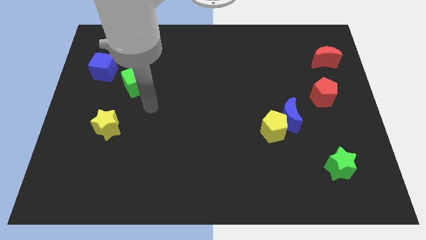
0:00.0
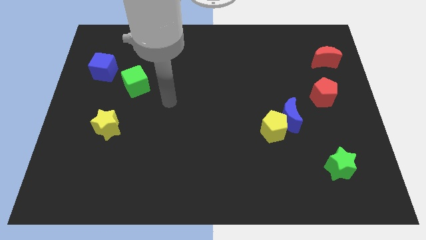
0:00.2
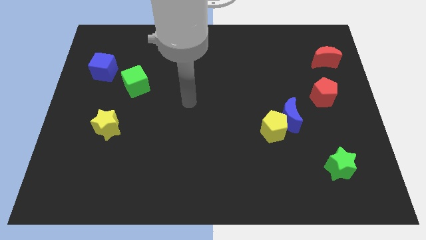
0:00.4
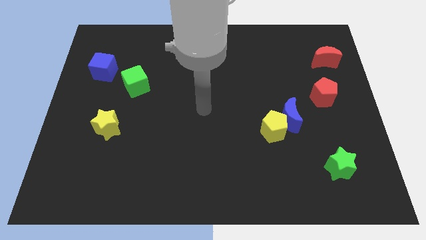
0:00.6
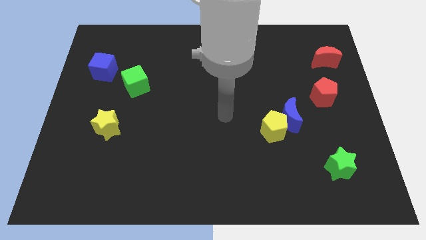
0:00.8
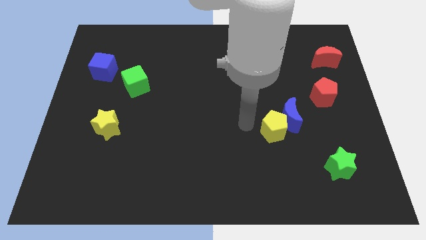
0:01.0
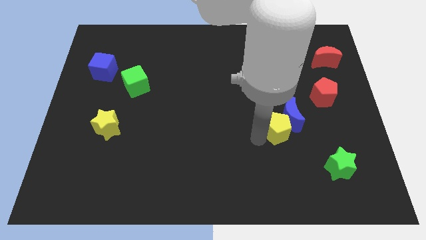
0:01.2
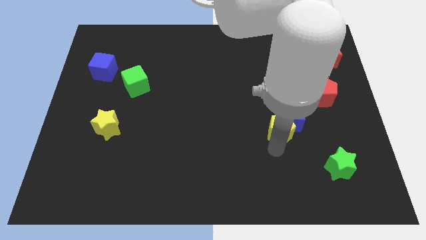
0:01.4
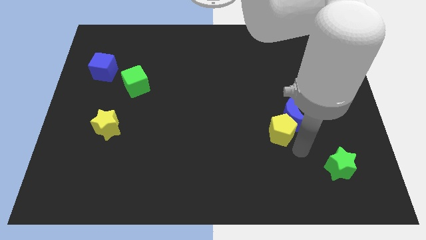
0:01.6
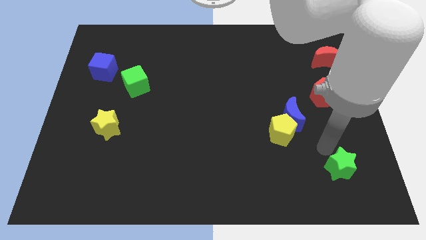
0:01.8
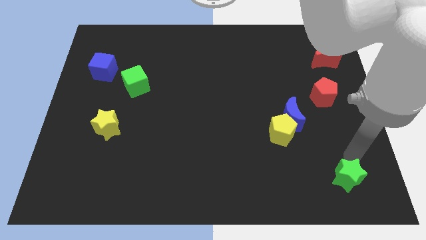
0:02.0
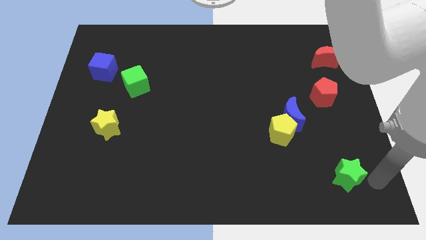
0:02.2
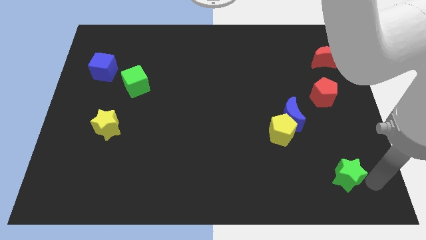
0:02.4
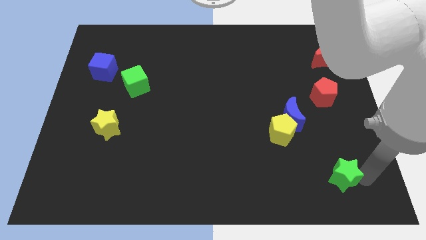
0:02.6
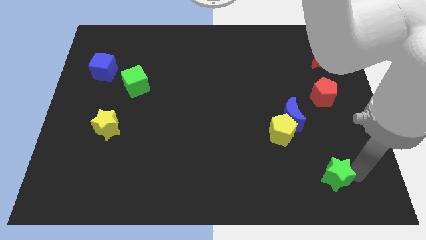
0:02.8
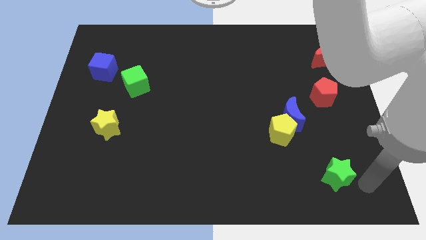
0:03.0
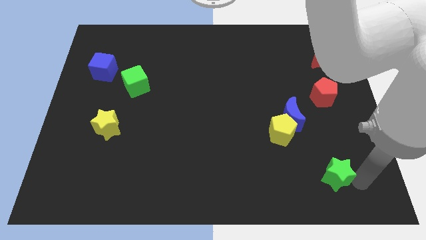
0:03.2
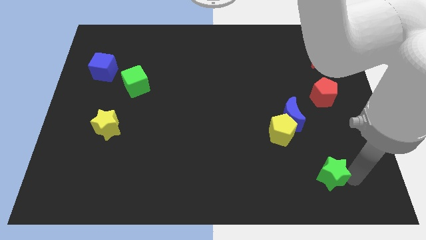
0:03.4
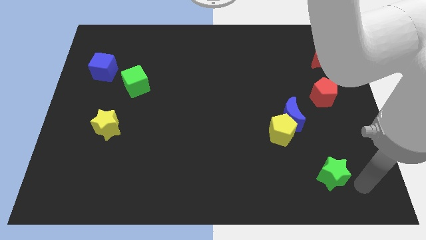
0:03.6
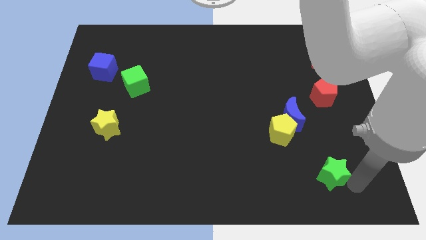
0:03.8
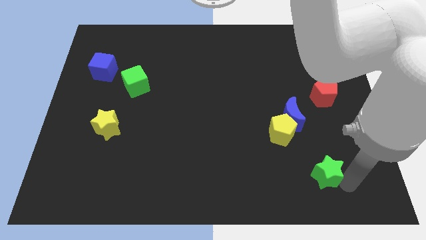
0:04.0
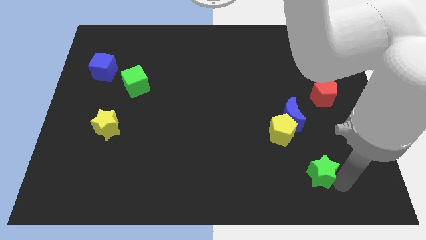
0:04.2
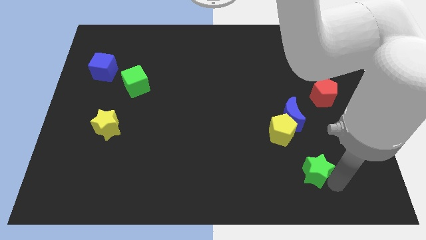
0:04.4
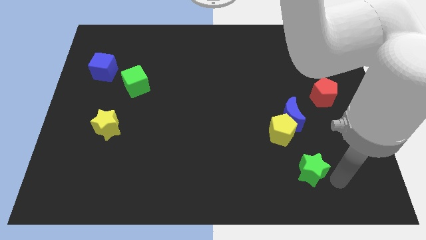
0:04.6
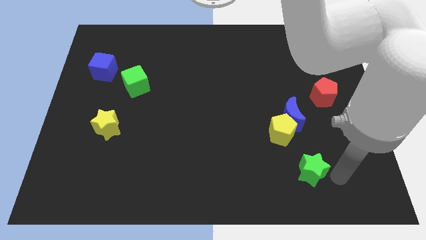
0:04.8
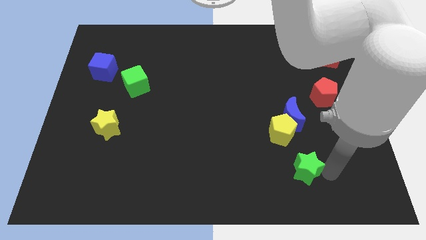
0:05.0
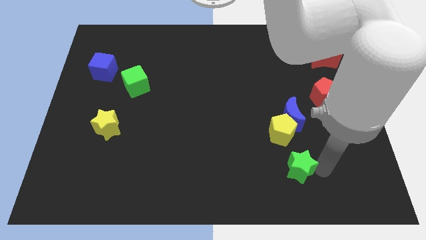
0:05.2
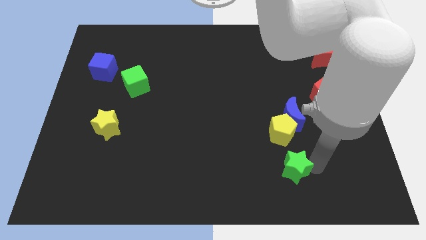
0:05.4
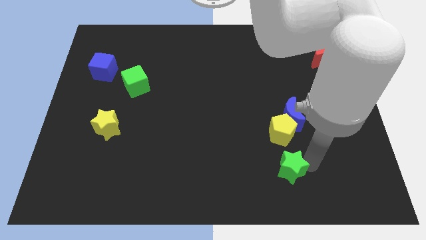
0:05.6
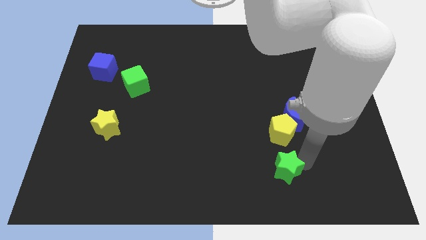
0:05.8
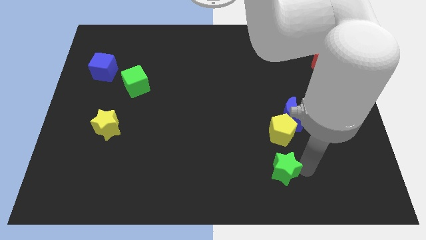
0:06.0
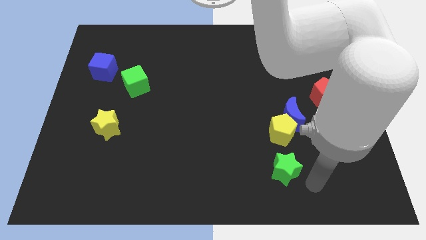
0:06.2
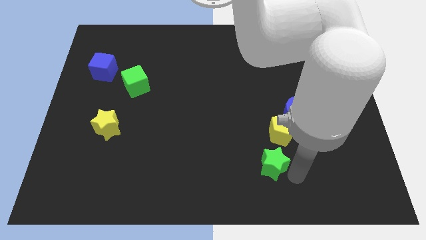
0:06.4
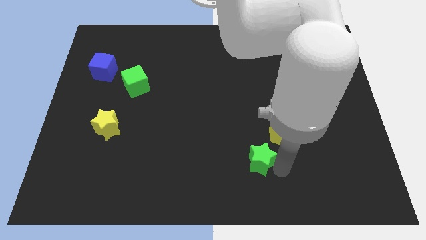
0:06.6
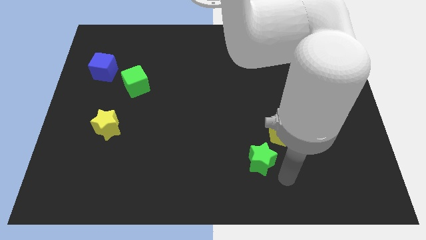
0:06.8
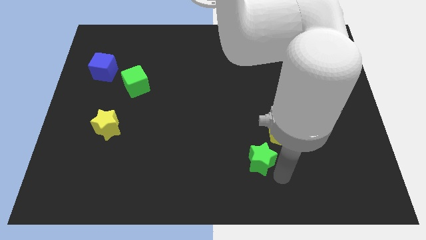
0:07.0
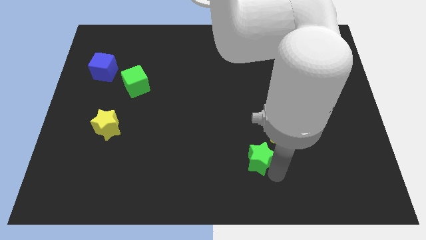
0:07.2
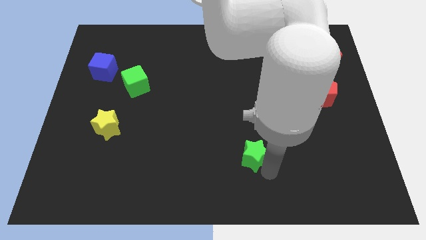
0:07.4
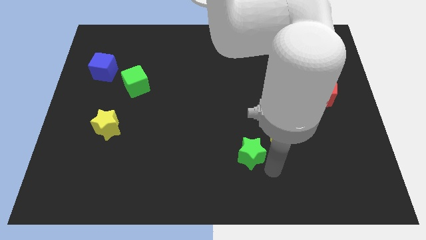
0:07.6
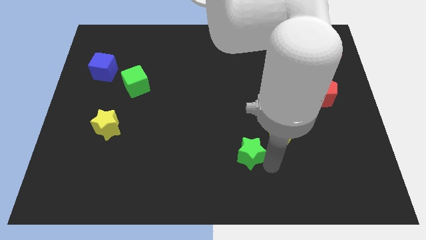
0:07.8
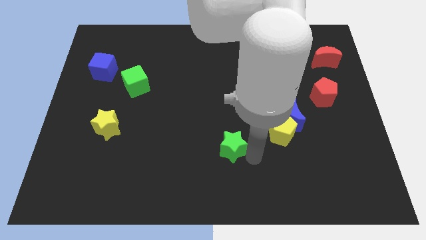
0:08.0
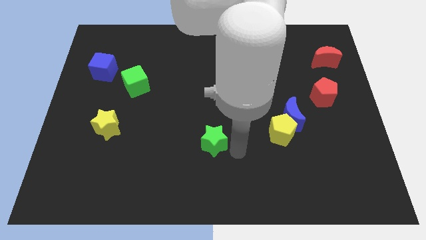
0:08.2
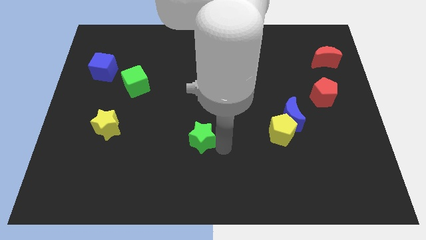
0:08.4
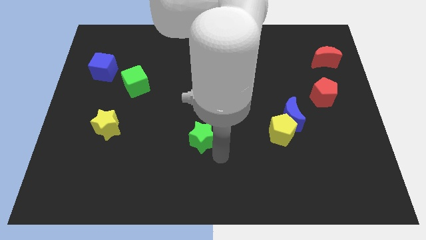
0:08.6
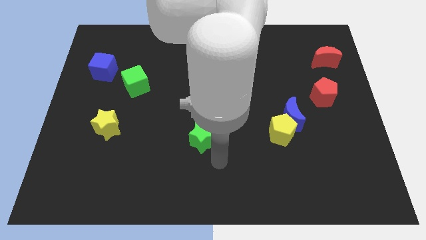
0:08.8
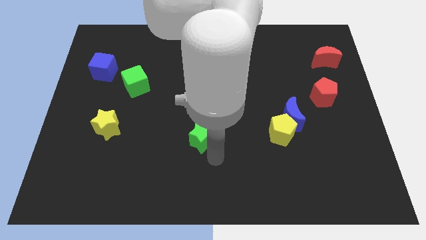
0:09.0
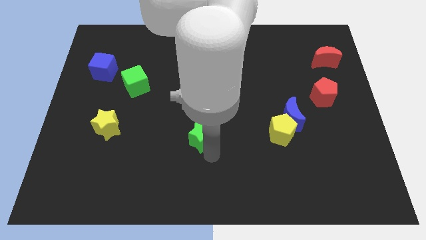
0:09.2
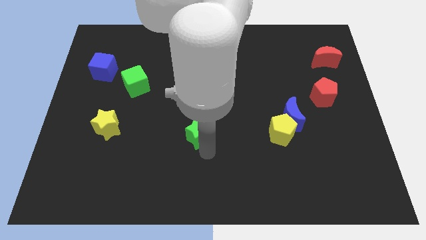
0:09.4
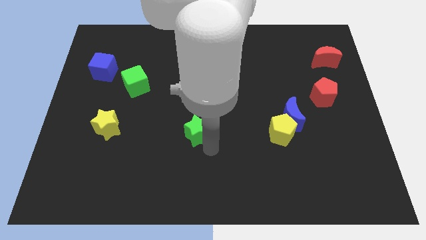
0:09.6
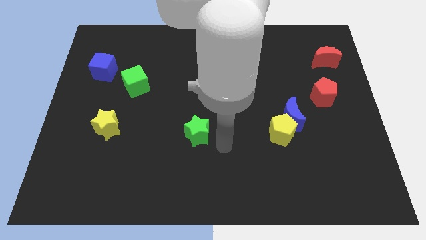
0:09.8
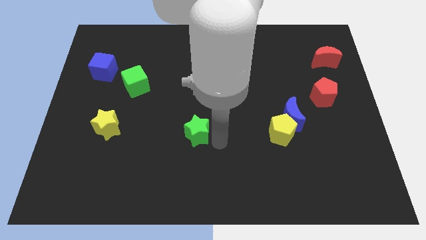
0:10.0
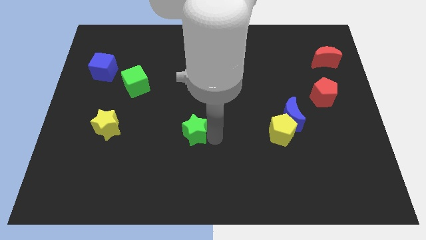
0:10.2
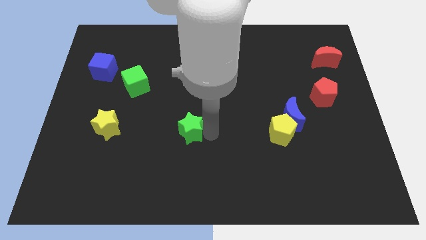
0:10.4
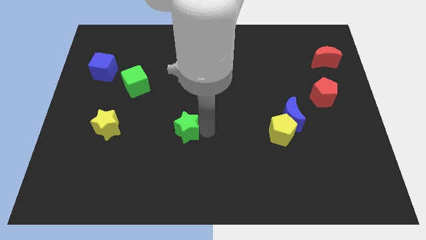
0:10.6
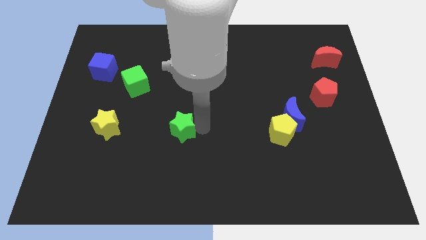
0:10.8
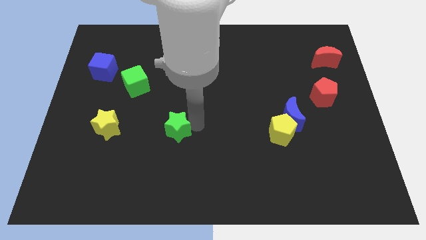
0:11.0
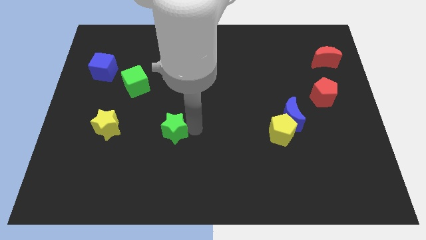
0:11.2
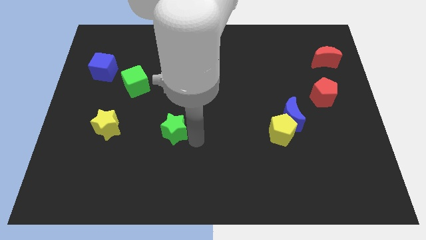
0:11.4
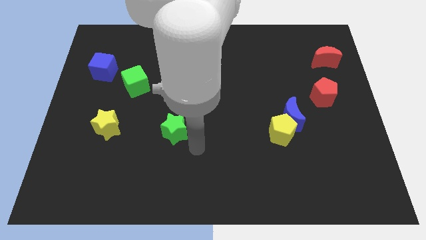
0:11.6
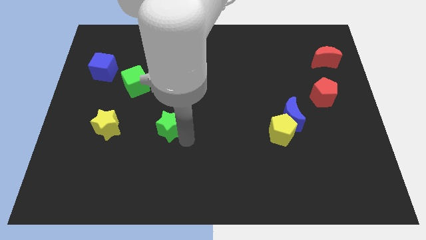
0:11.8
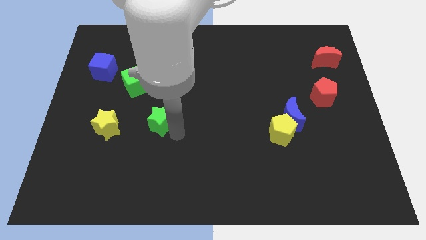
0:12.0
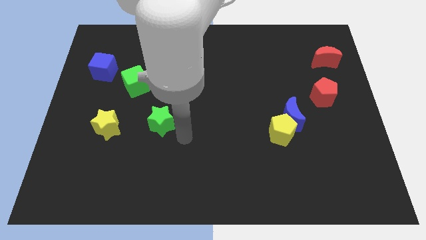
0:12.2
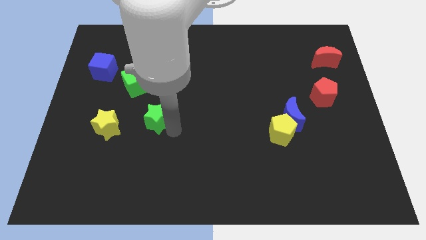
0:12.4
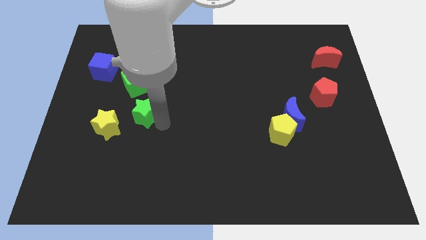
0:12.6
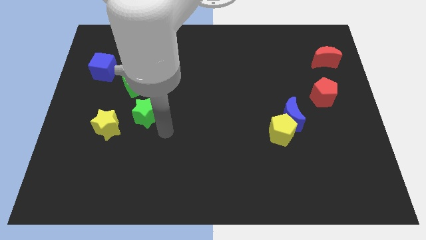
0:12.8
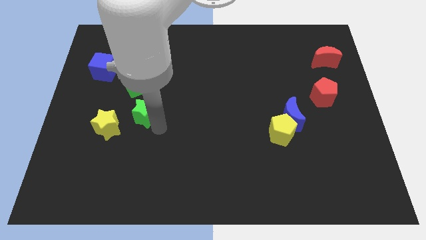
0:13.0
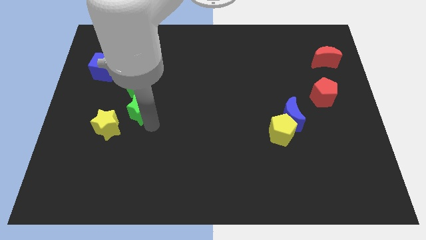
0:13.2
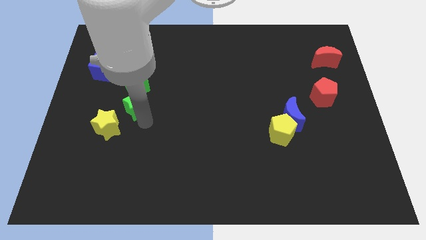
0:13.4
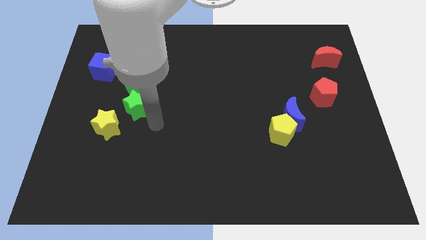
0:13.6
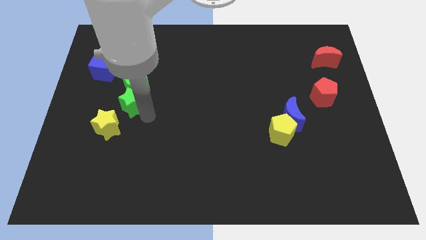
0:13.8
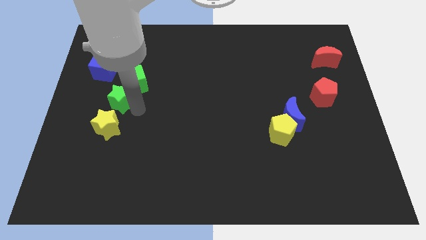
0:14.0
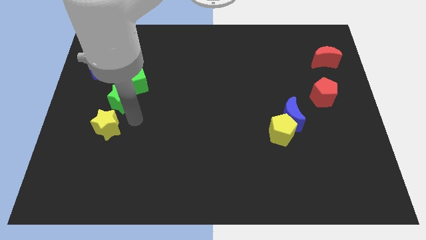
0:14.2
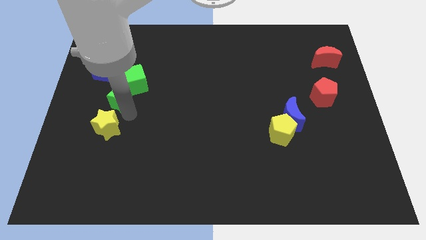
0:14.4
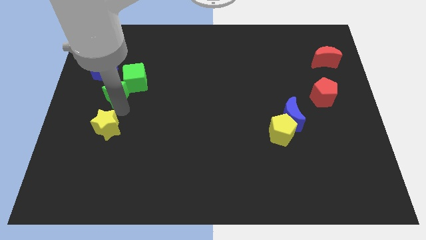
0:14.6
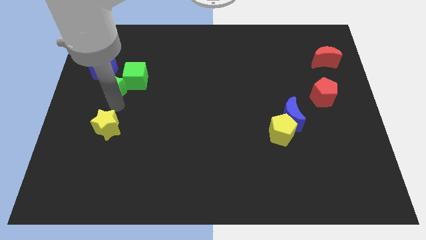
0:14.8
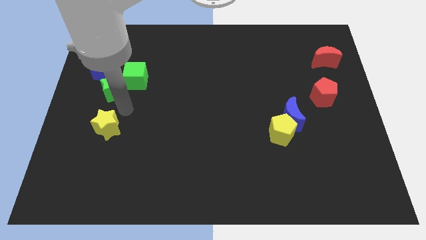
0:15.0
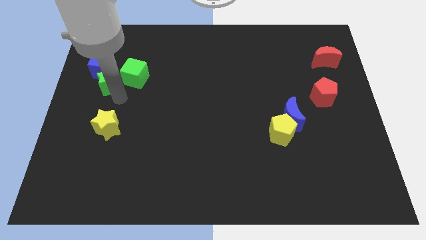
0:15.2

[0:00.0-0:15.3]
move the green star towards the blue cube
